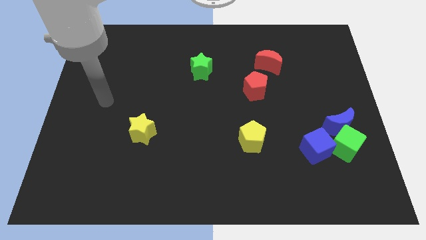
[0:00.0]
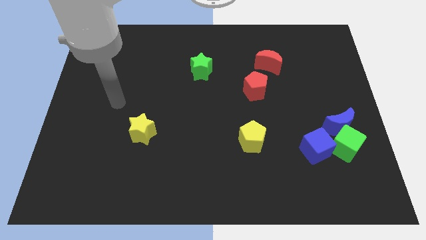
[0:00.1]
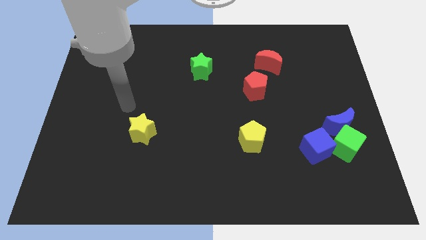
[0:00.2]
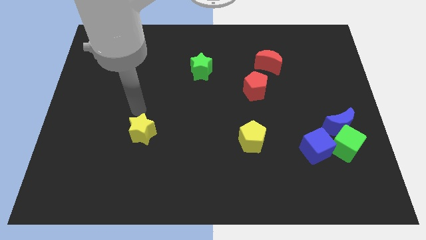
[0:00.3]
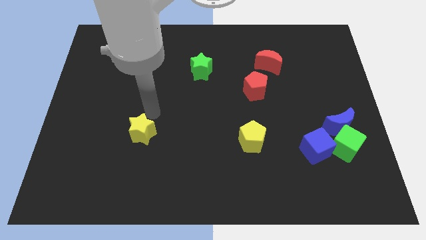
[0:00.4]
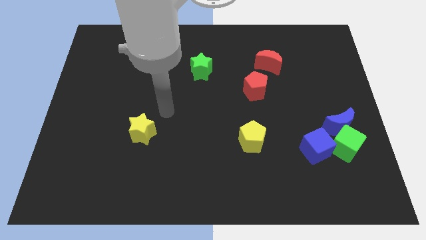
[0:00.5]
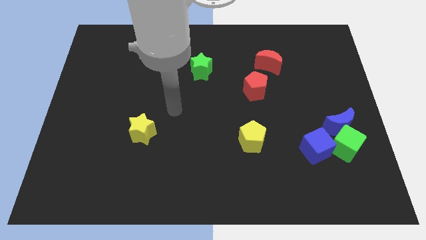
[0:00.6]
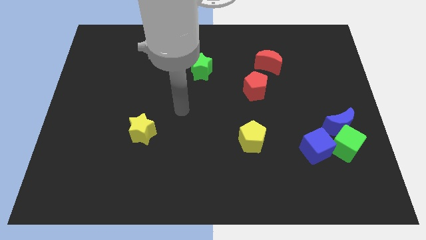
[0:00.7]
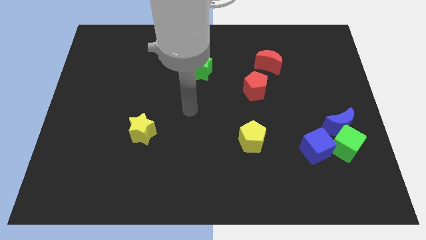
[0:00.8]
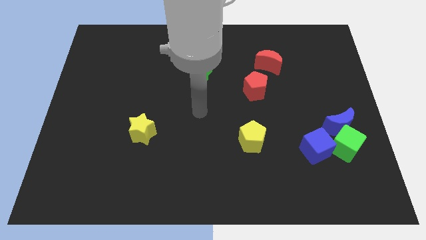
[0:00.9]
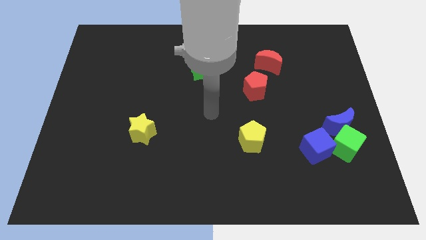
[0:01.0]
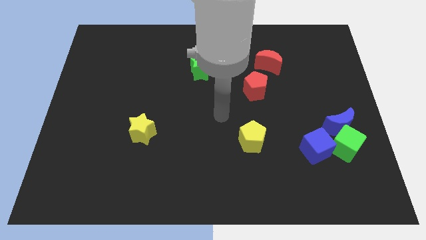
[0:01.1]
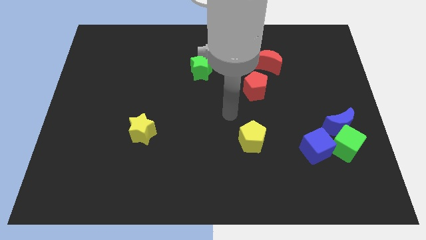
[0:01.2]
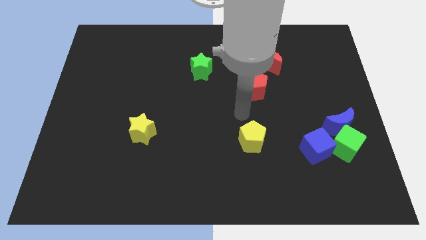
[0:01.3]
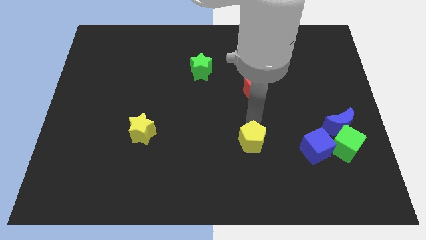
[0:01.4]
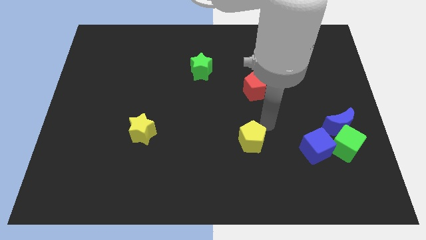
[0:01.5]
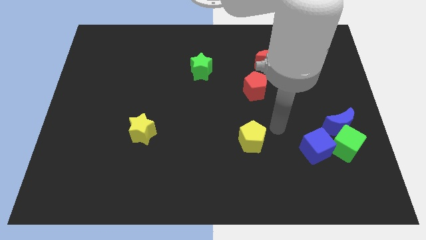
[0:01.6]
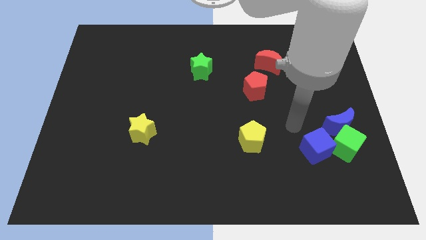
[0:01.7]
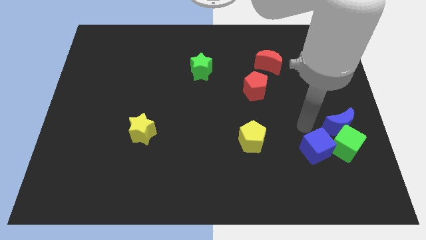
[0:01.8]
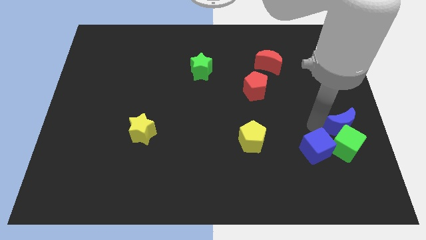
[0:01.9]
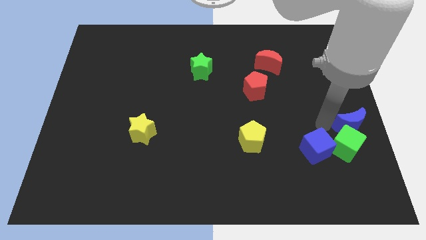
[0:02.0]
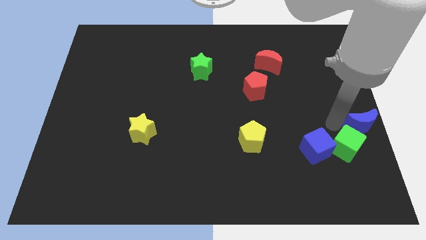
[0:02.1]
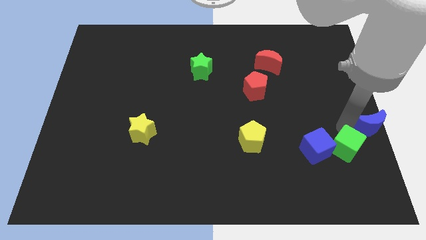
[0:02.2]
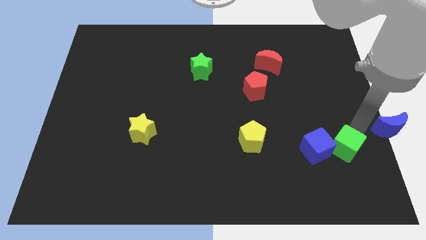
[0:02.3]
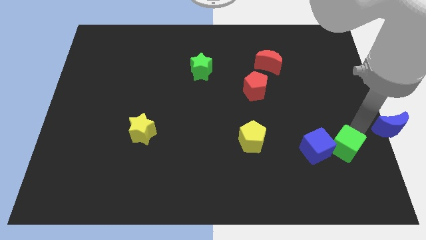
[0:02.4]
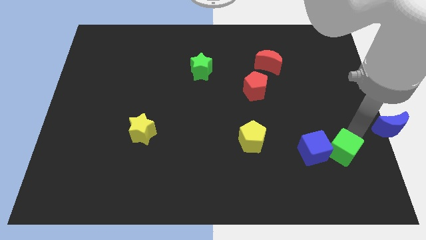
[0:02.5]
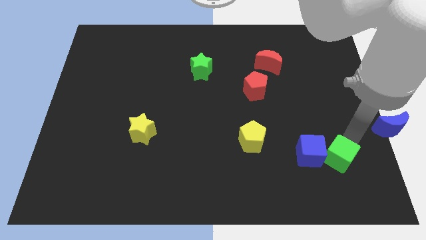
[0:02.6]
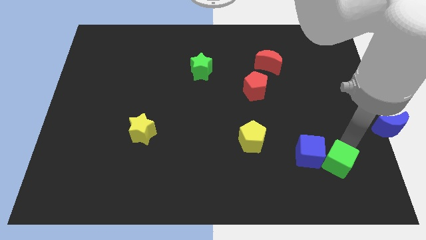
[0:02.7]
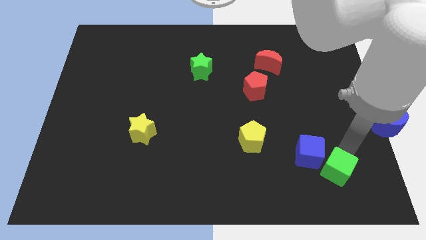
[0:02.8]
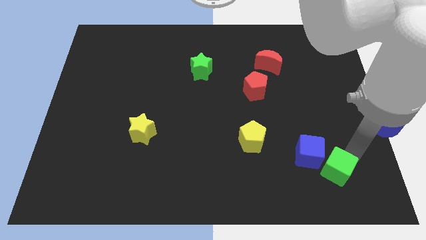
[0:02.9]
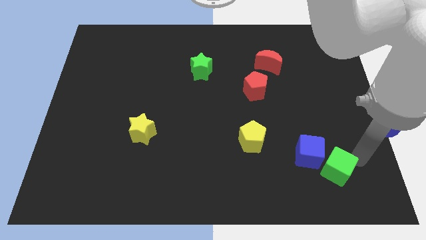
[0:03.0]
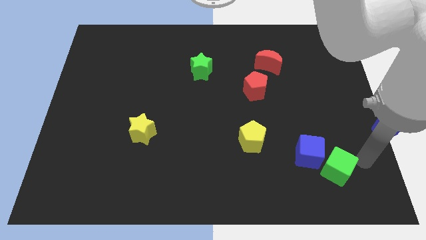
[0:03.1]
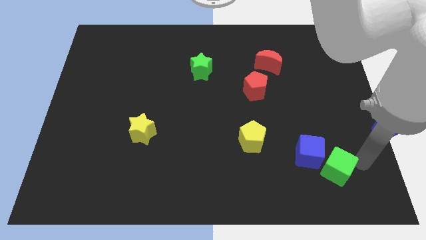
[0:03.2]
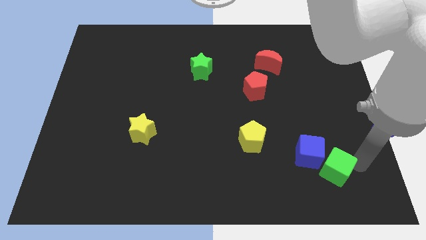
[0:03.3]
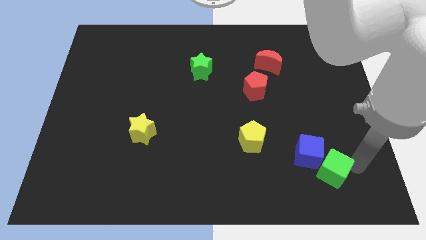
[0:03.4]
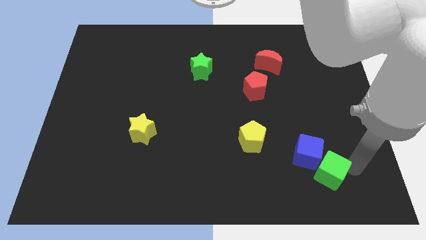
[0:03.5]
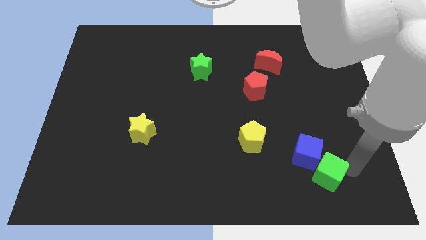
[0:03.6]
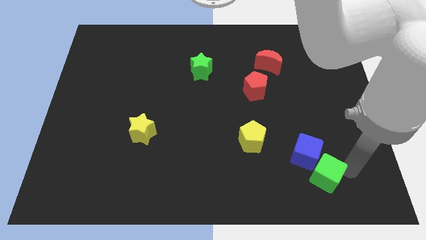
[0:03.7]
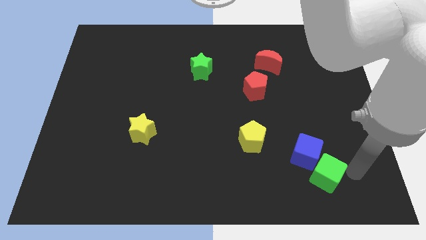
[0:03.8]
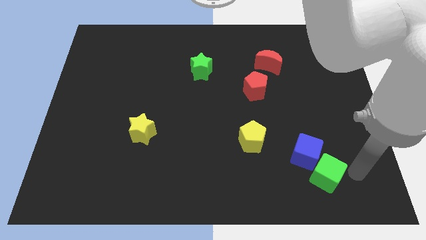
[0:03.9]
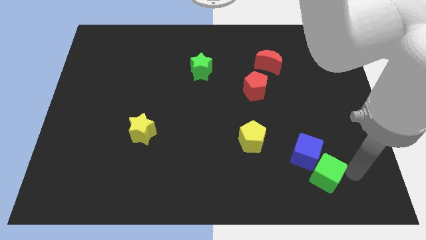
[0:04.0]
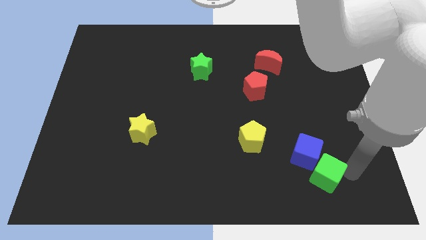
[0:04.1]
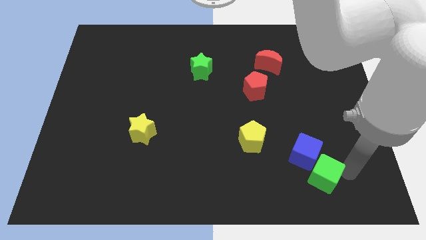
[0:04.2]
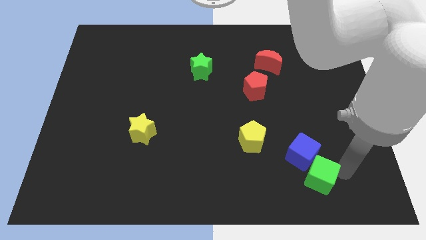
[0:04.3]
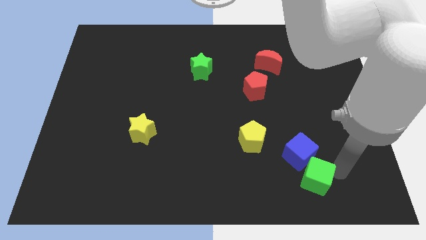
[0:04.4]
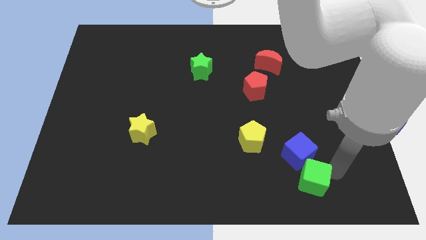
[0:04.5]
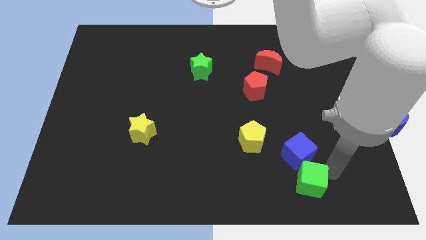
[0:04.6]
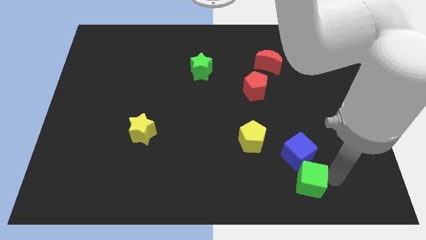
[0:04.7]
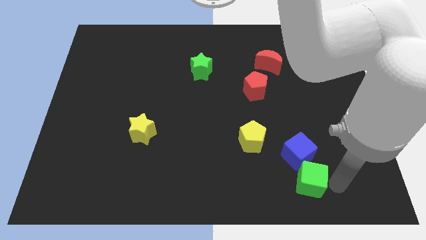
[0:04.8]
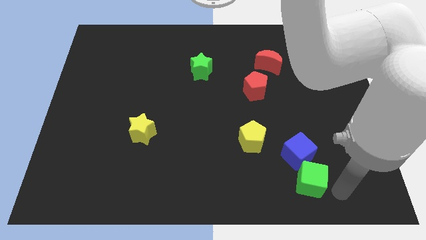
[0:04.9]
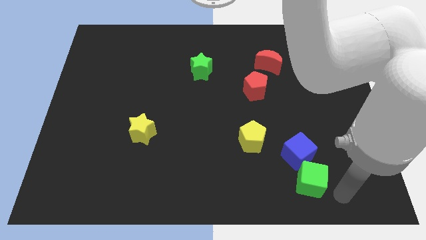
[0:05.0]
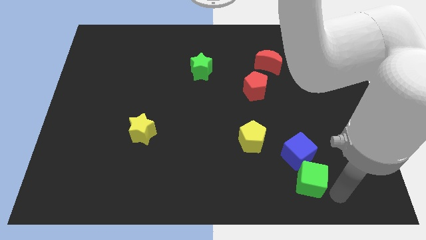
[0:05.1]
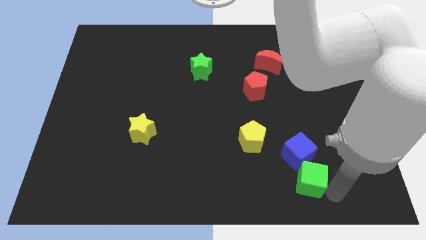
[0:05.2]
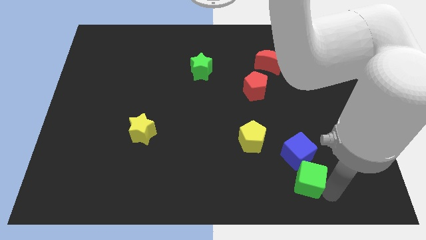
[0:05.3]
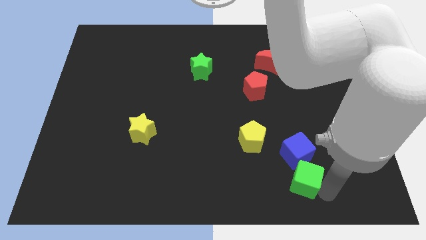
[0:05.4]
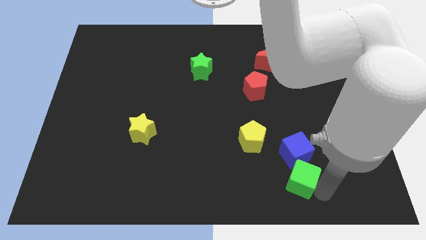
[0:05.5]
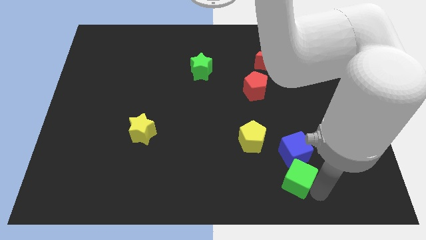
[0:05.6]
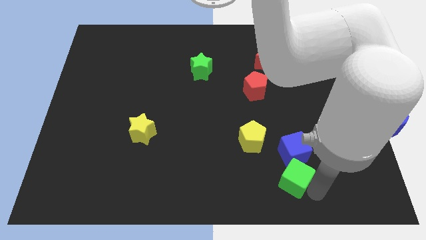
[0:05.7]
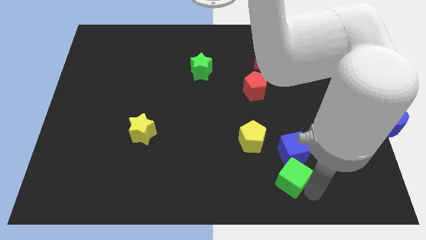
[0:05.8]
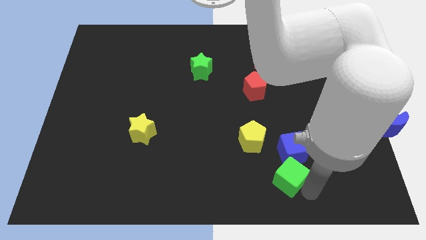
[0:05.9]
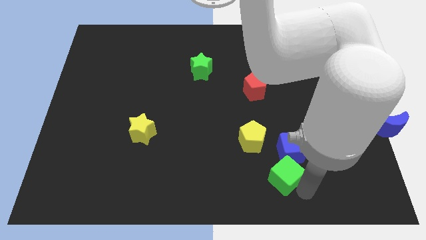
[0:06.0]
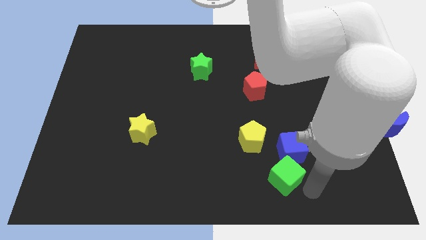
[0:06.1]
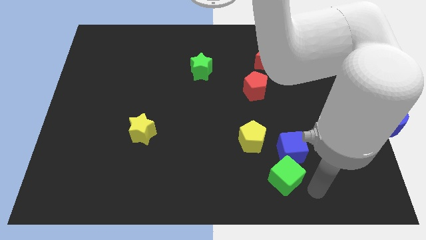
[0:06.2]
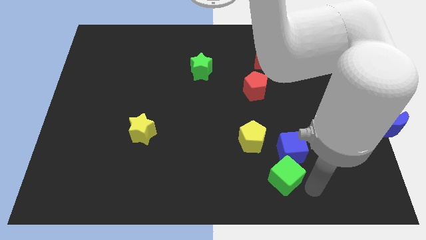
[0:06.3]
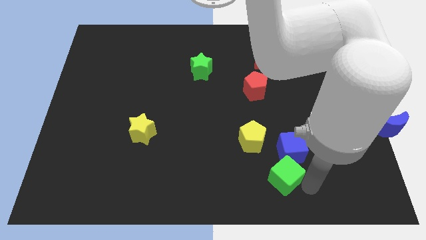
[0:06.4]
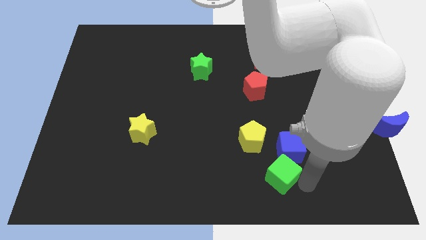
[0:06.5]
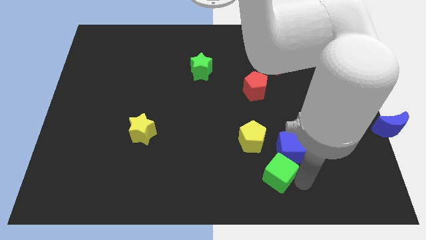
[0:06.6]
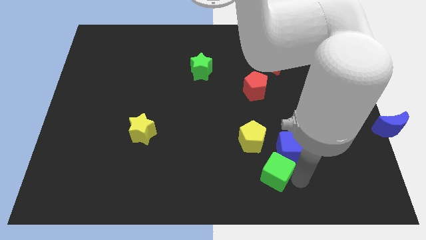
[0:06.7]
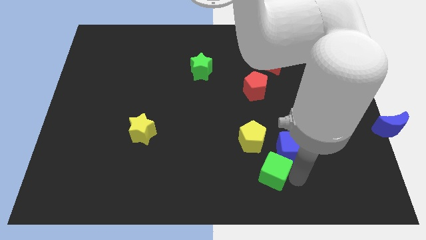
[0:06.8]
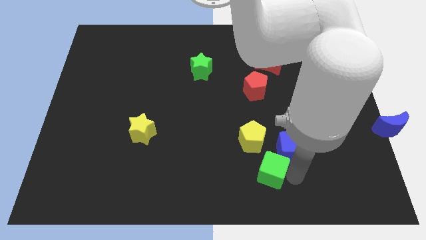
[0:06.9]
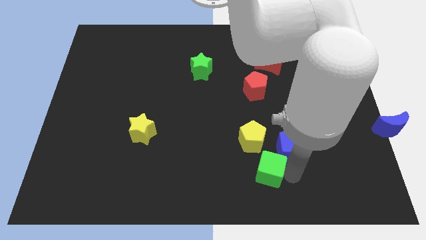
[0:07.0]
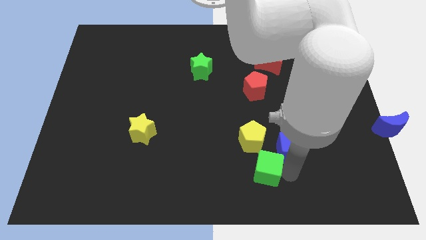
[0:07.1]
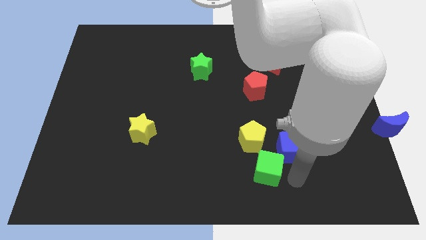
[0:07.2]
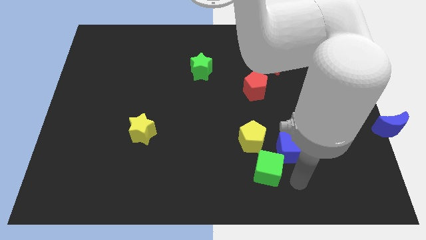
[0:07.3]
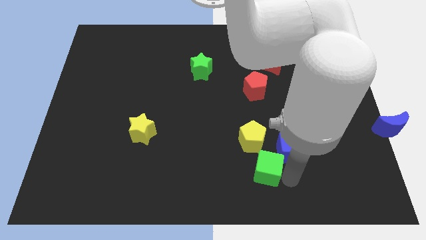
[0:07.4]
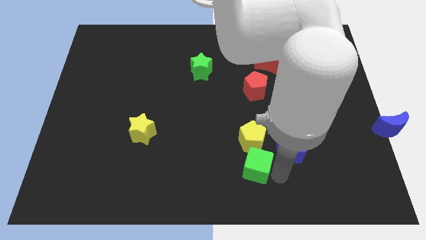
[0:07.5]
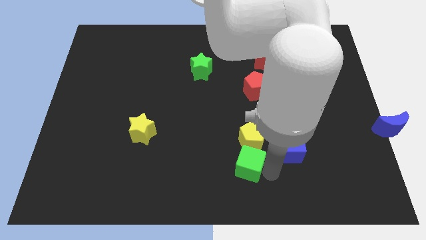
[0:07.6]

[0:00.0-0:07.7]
move the green cube left

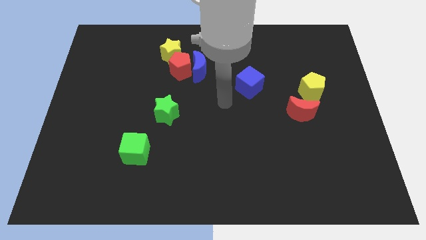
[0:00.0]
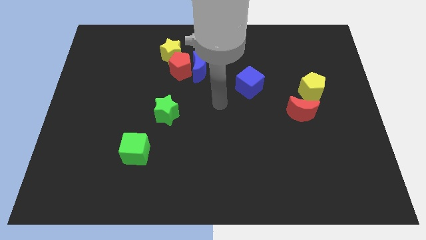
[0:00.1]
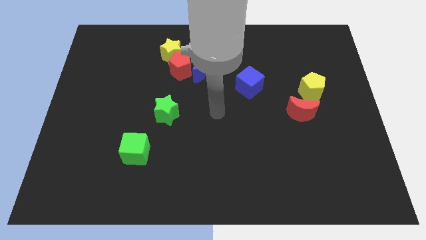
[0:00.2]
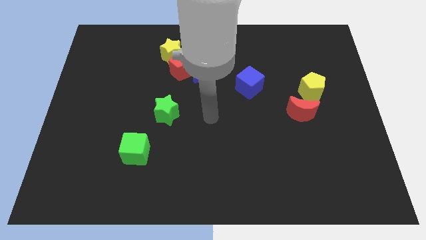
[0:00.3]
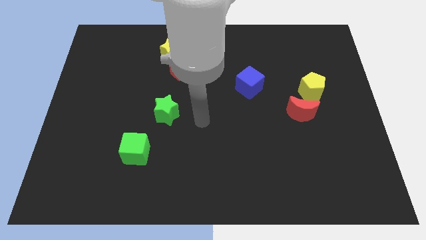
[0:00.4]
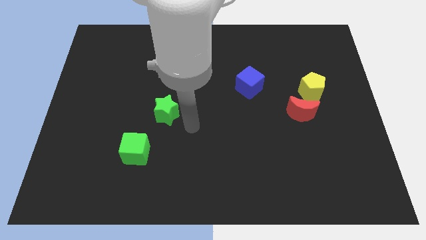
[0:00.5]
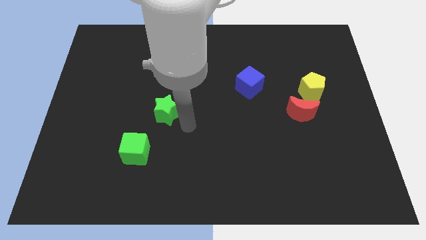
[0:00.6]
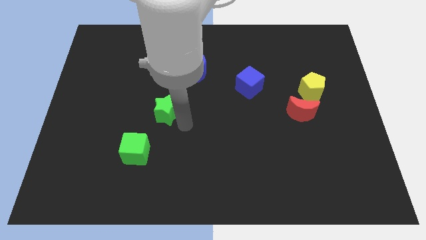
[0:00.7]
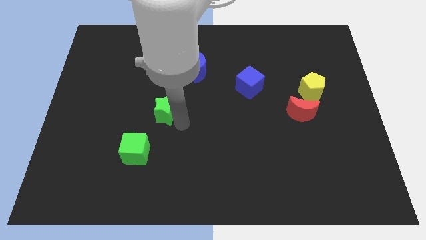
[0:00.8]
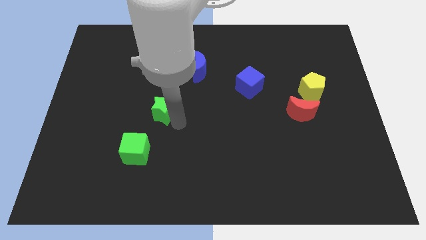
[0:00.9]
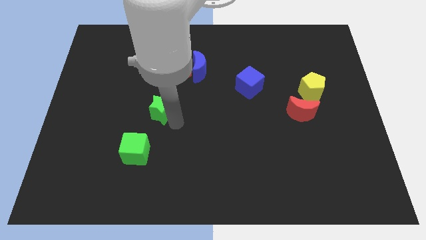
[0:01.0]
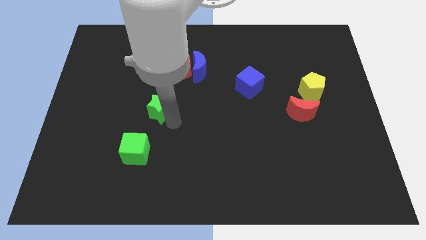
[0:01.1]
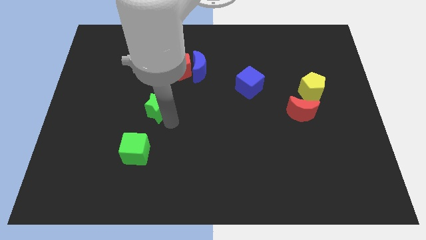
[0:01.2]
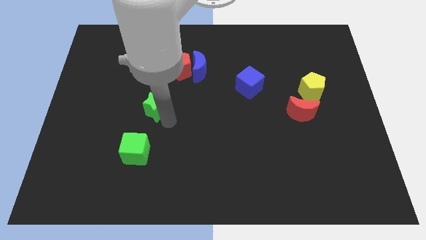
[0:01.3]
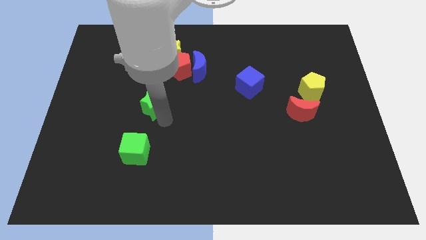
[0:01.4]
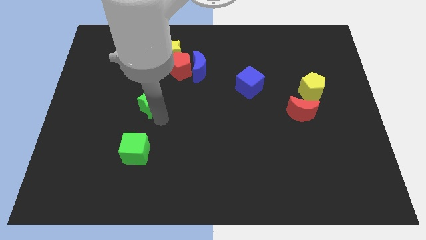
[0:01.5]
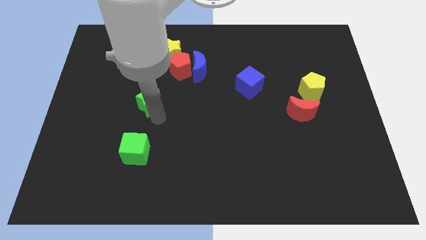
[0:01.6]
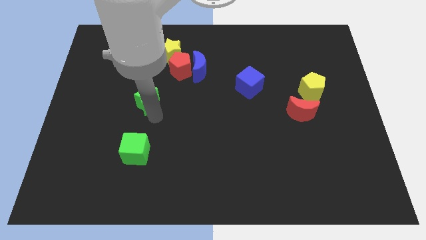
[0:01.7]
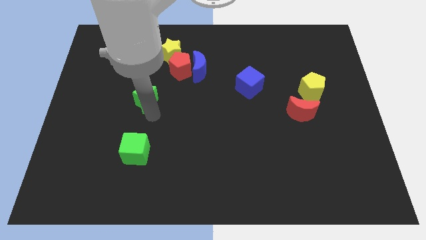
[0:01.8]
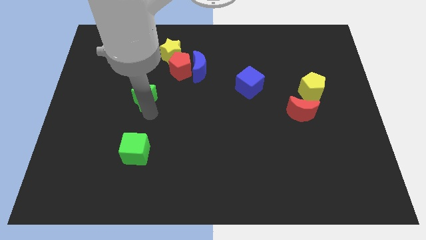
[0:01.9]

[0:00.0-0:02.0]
push the green star slightly up and to the left diagonally
